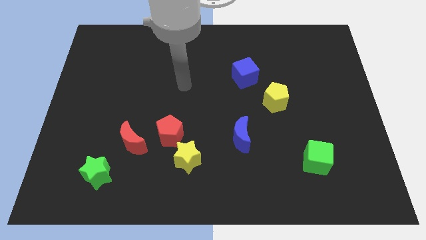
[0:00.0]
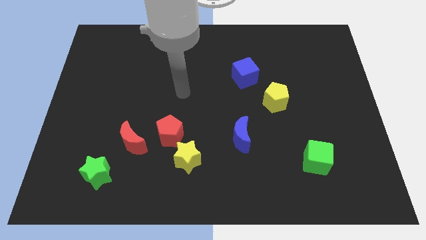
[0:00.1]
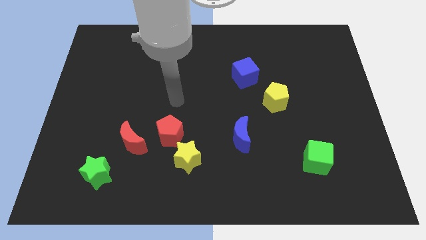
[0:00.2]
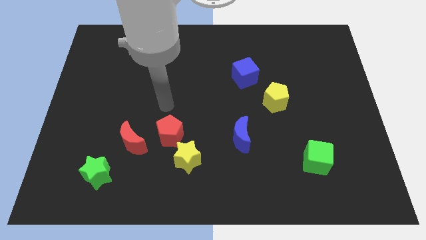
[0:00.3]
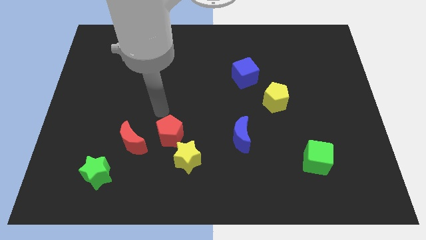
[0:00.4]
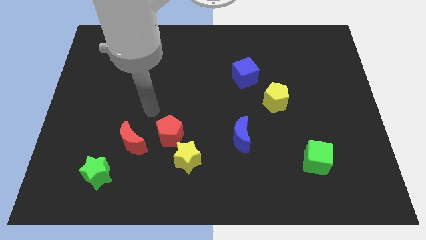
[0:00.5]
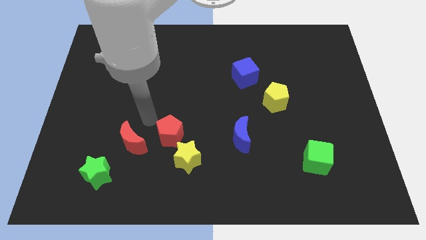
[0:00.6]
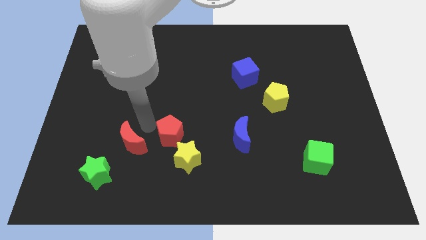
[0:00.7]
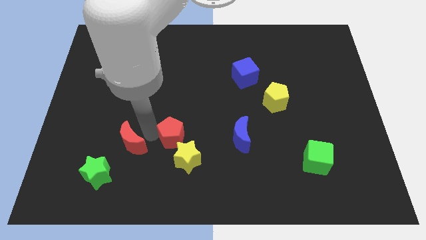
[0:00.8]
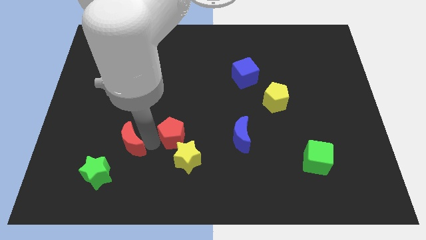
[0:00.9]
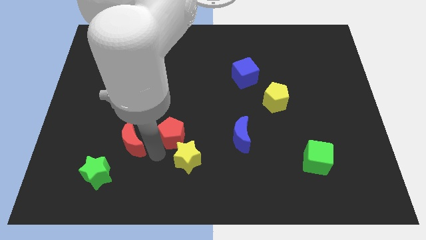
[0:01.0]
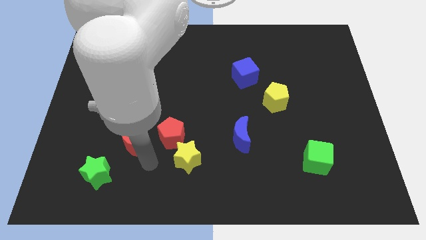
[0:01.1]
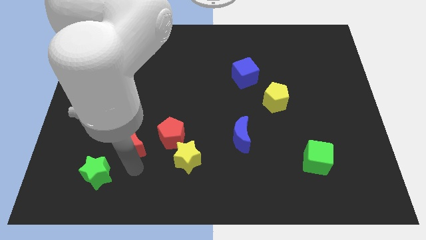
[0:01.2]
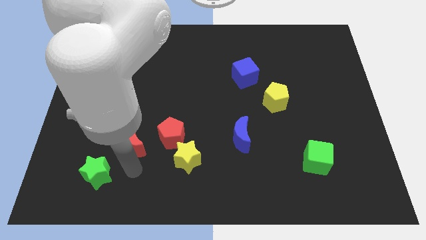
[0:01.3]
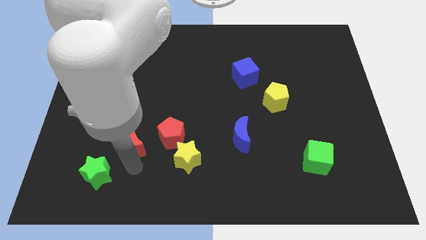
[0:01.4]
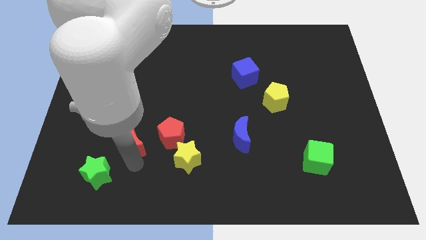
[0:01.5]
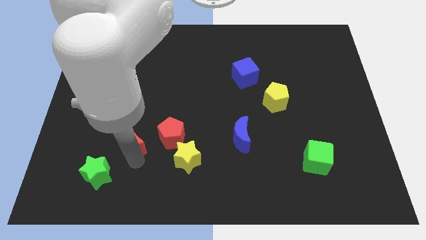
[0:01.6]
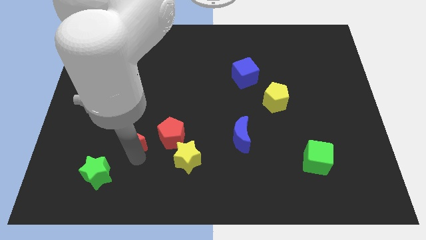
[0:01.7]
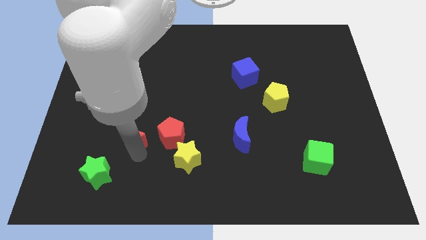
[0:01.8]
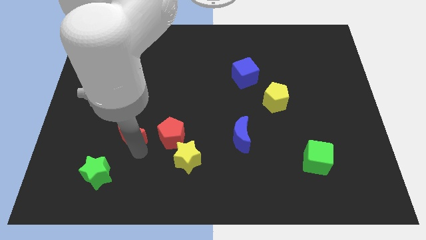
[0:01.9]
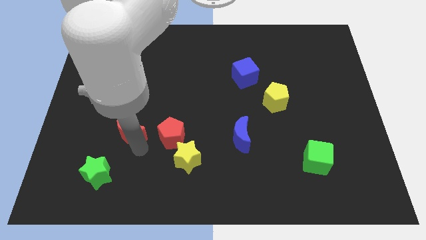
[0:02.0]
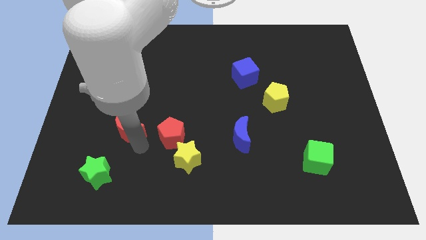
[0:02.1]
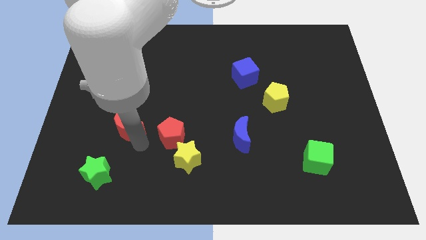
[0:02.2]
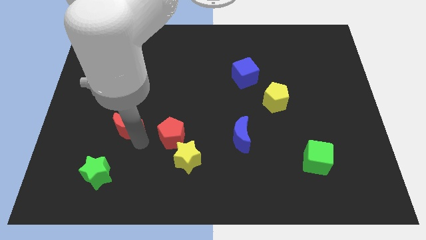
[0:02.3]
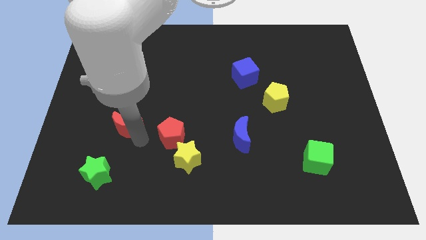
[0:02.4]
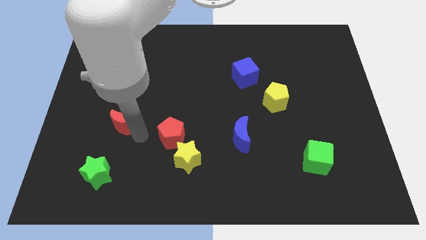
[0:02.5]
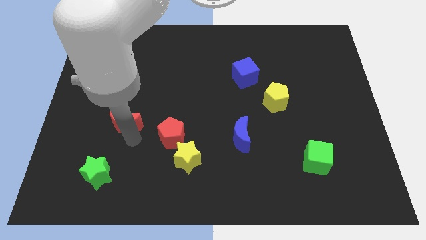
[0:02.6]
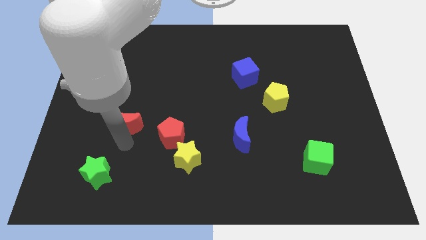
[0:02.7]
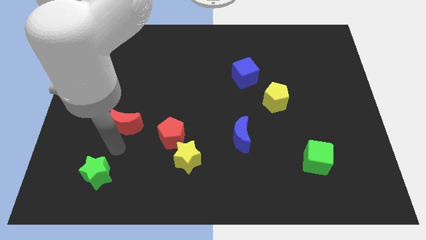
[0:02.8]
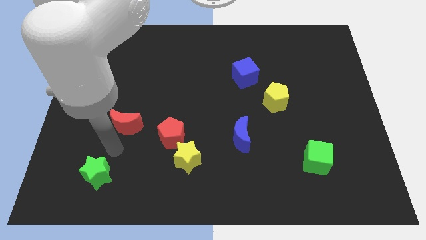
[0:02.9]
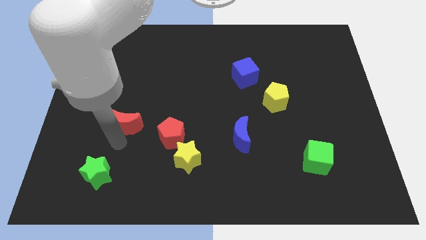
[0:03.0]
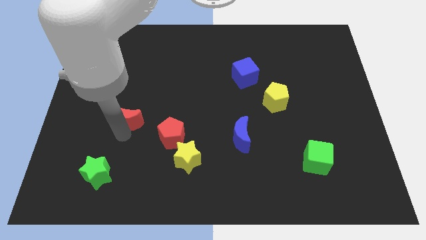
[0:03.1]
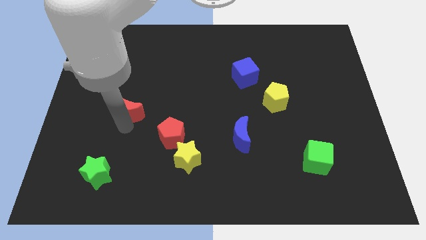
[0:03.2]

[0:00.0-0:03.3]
slide the red moon a bit up

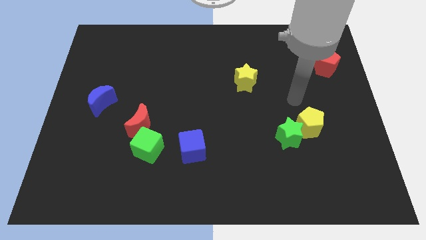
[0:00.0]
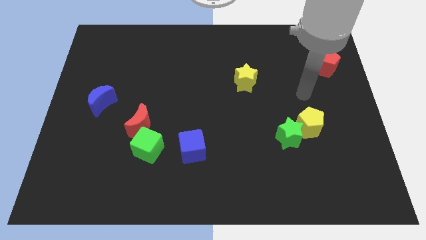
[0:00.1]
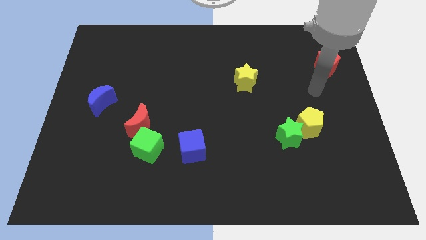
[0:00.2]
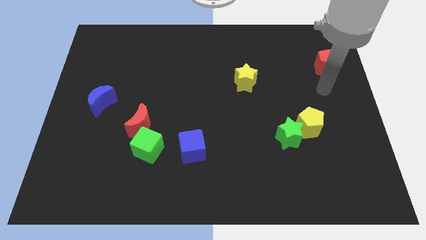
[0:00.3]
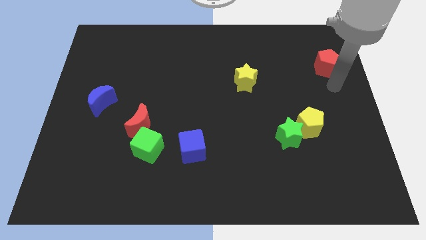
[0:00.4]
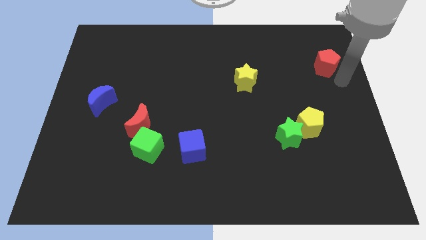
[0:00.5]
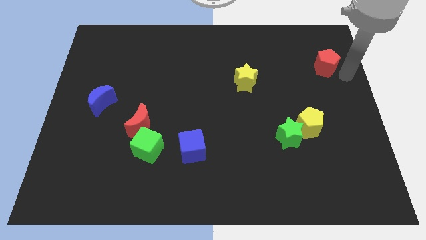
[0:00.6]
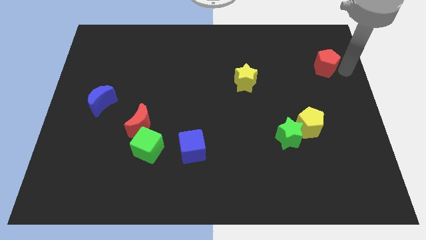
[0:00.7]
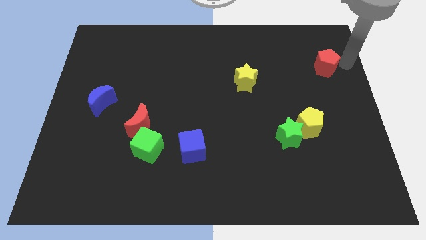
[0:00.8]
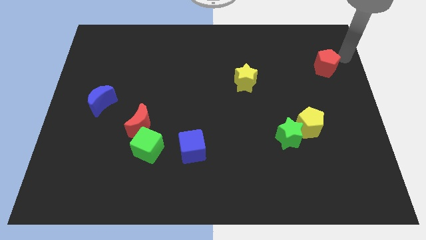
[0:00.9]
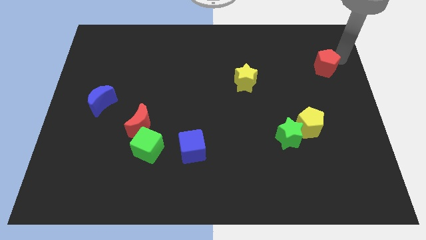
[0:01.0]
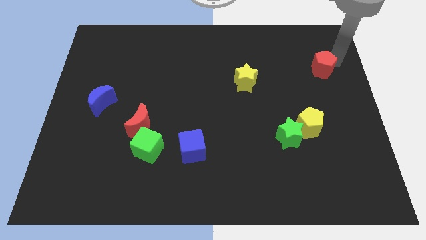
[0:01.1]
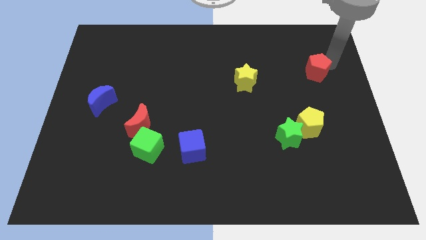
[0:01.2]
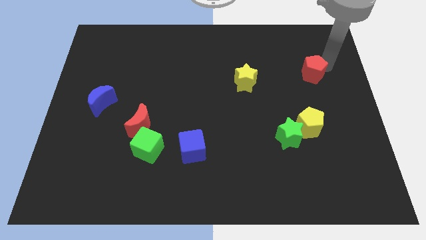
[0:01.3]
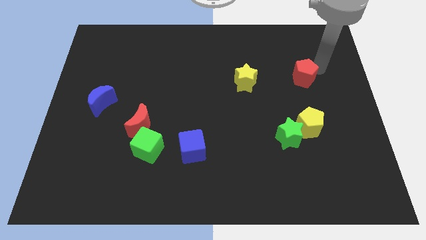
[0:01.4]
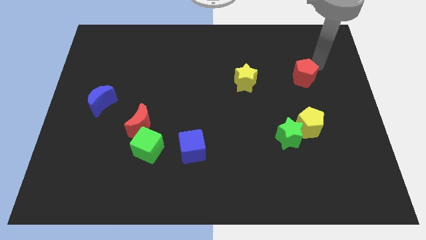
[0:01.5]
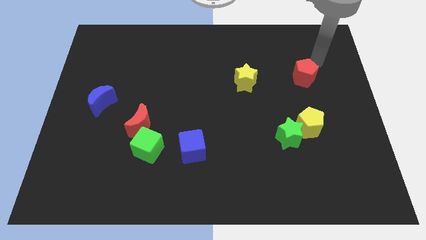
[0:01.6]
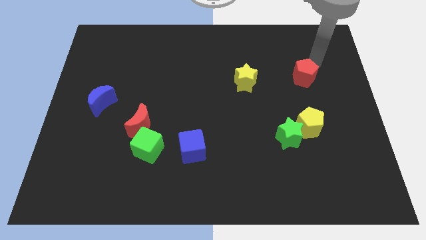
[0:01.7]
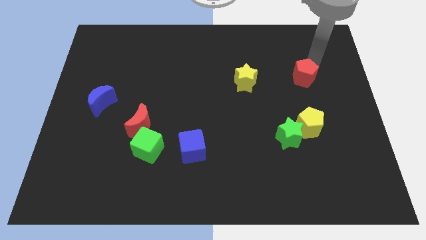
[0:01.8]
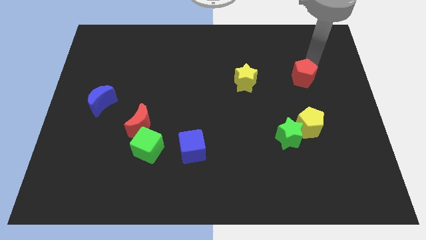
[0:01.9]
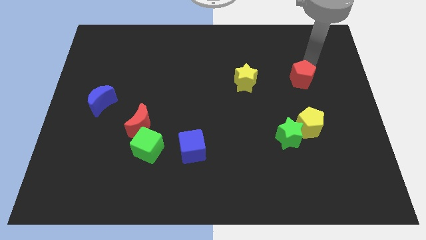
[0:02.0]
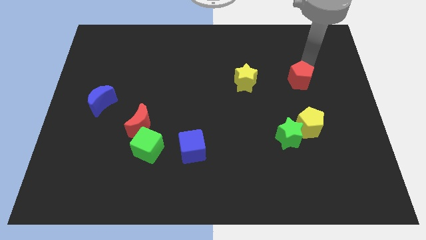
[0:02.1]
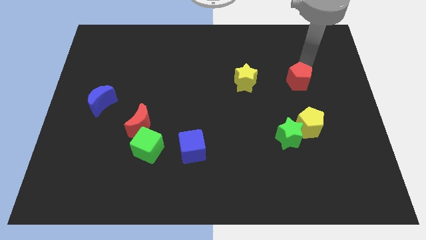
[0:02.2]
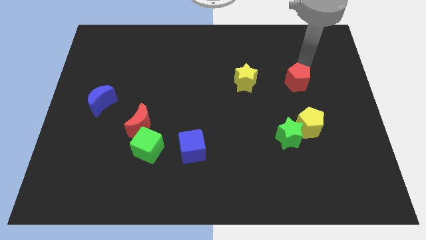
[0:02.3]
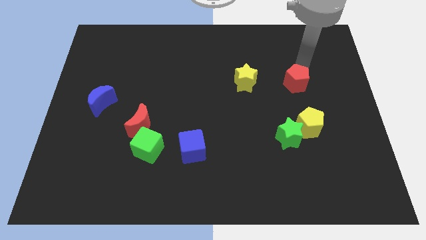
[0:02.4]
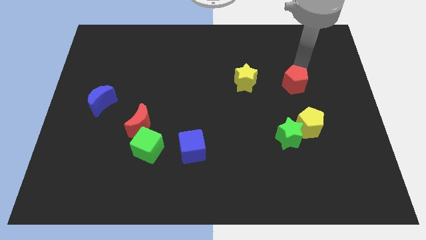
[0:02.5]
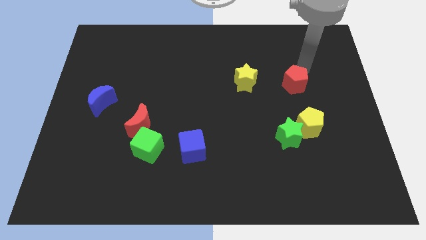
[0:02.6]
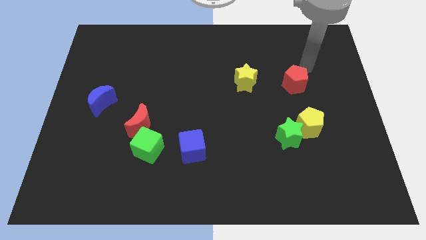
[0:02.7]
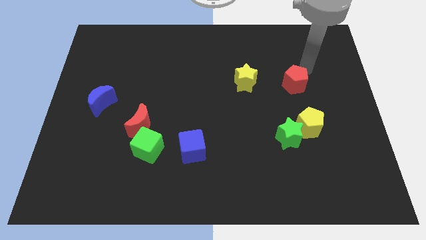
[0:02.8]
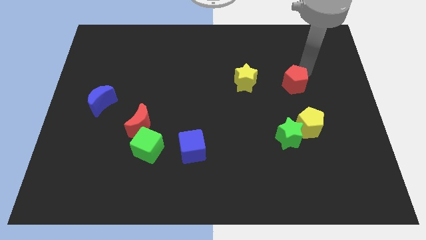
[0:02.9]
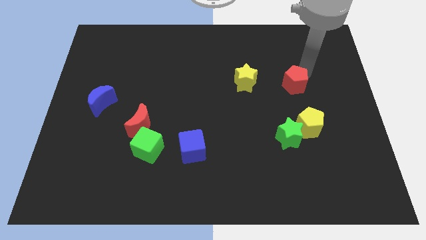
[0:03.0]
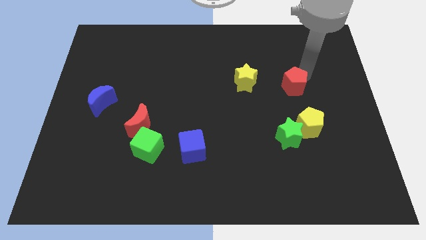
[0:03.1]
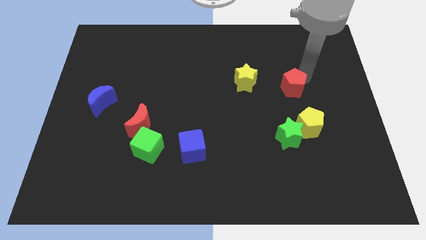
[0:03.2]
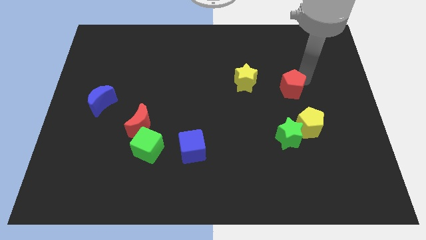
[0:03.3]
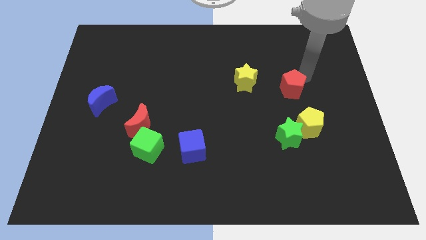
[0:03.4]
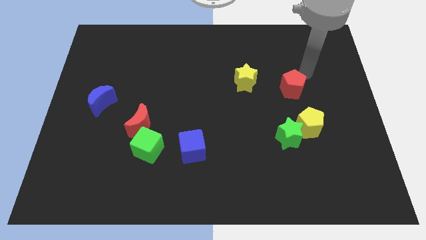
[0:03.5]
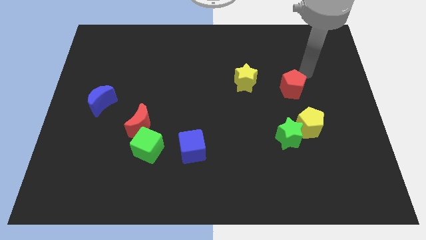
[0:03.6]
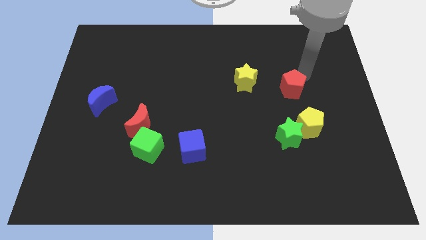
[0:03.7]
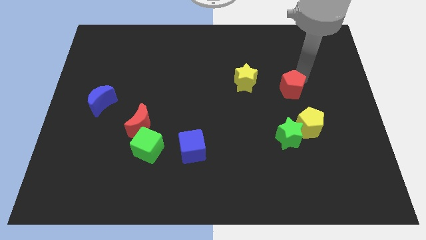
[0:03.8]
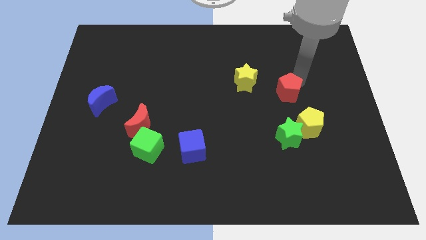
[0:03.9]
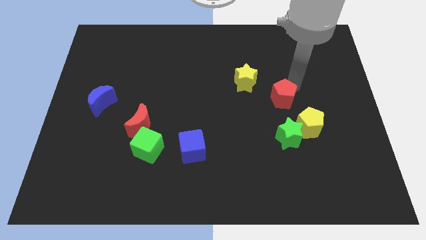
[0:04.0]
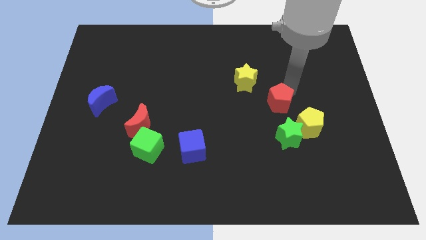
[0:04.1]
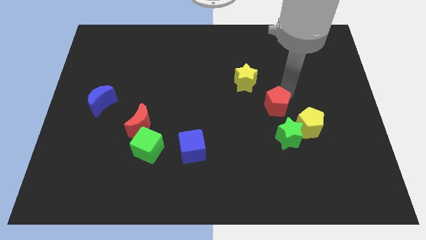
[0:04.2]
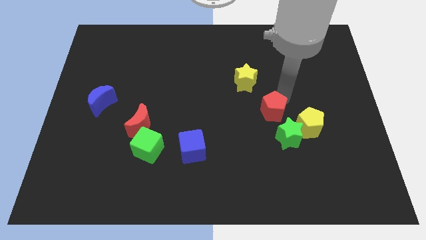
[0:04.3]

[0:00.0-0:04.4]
push the red pentagon downwards and left diagonally
